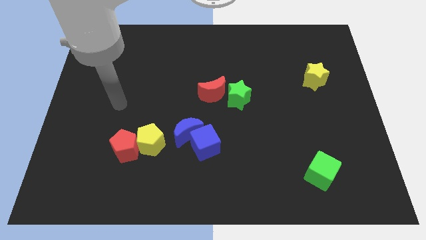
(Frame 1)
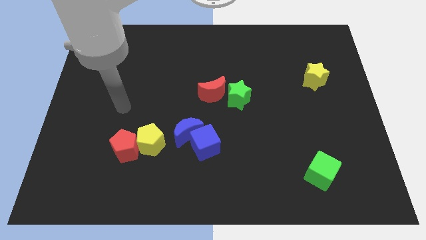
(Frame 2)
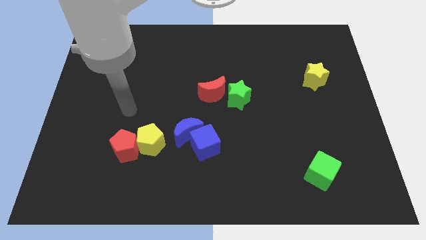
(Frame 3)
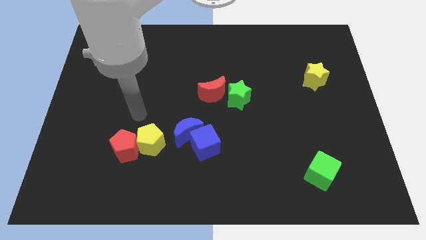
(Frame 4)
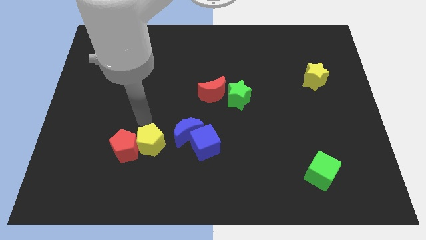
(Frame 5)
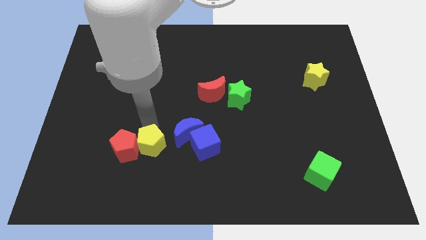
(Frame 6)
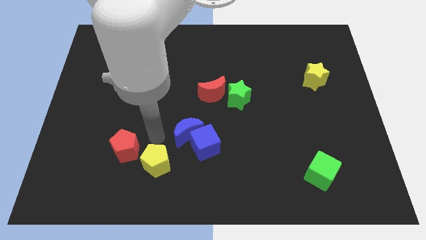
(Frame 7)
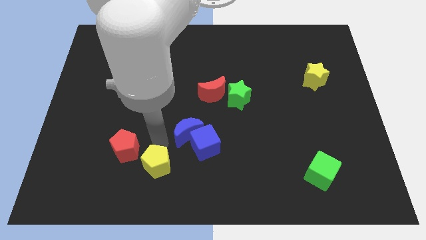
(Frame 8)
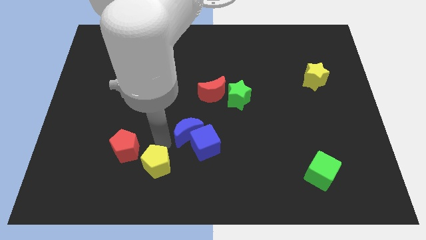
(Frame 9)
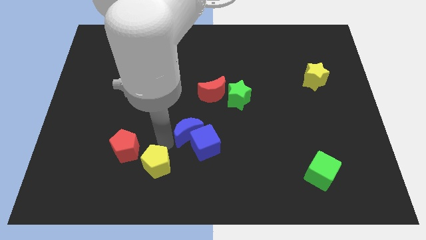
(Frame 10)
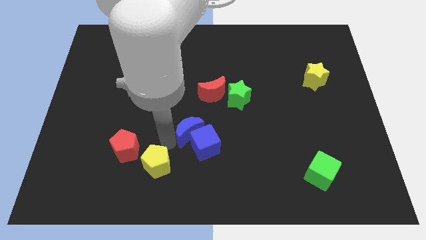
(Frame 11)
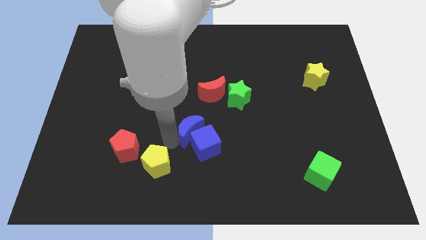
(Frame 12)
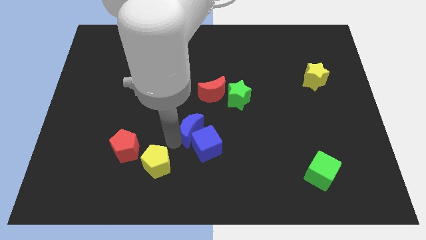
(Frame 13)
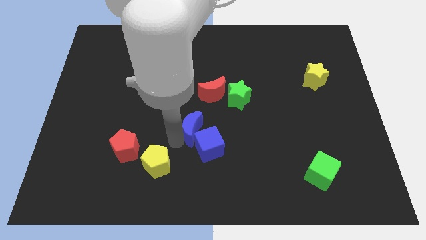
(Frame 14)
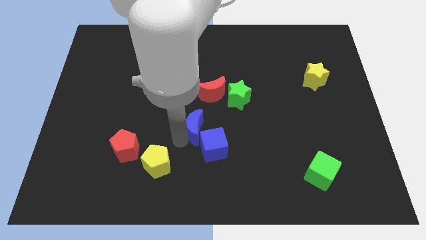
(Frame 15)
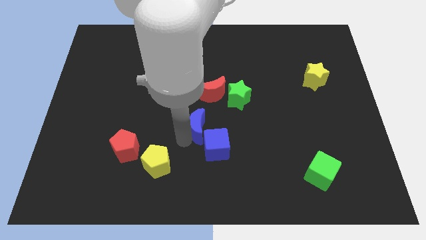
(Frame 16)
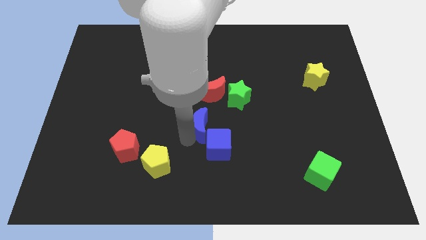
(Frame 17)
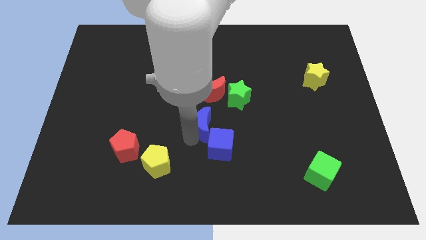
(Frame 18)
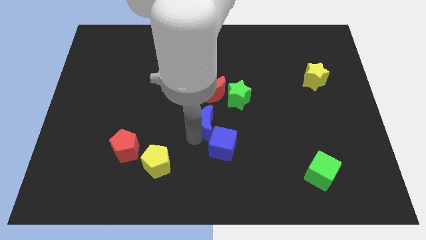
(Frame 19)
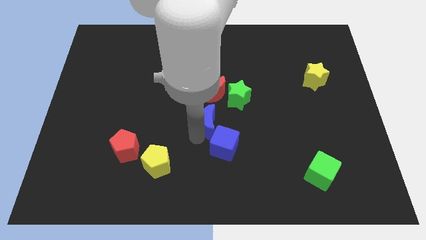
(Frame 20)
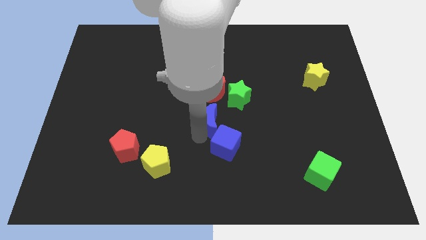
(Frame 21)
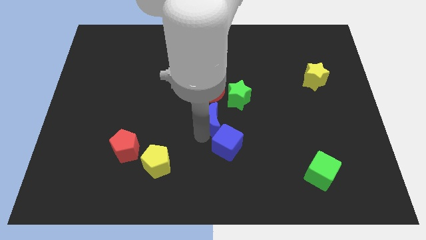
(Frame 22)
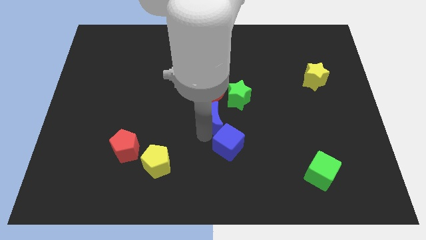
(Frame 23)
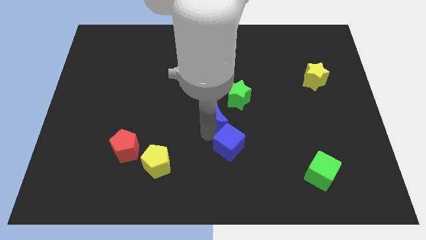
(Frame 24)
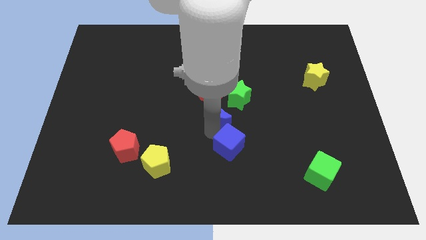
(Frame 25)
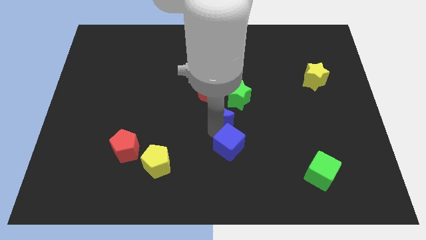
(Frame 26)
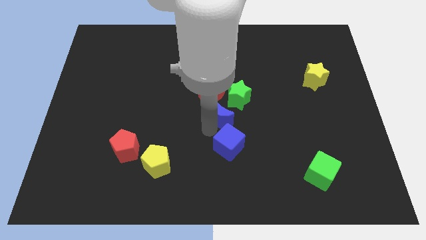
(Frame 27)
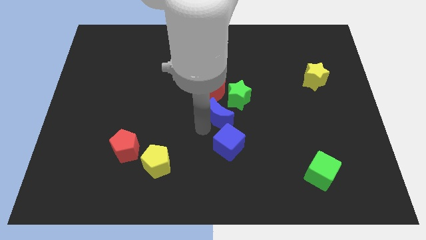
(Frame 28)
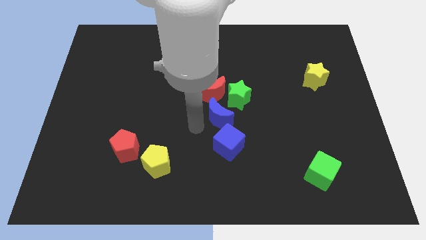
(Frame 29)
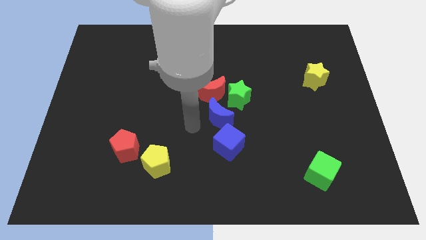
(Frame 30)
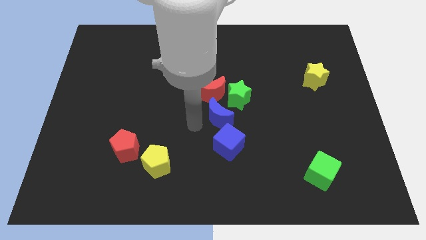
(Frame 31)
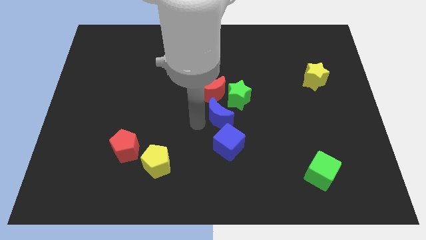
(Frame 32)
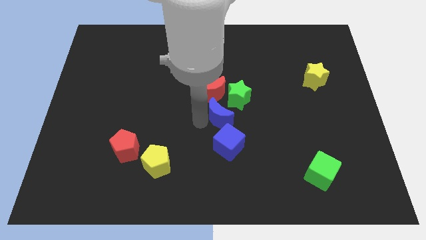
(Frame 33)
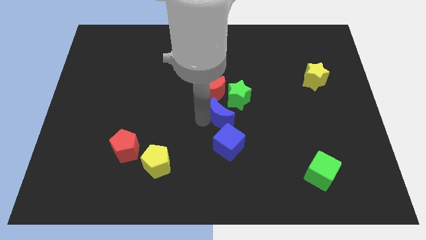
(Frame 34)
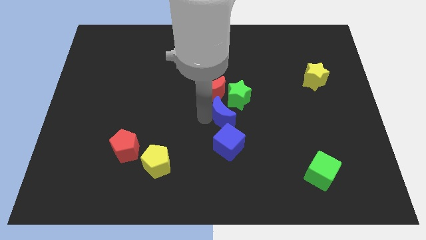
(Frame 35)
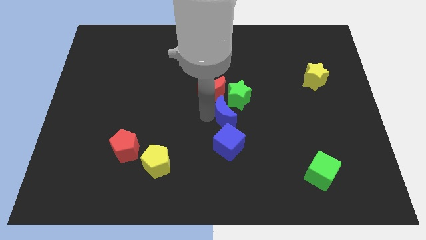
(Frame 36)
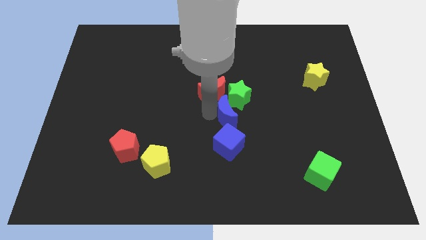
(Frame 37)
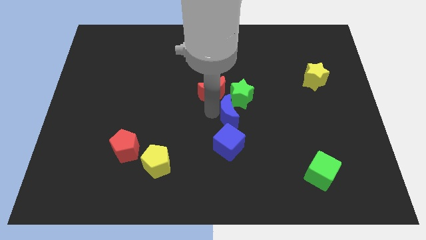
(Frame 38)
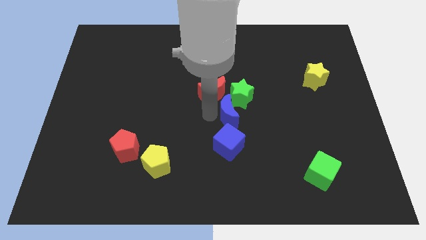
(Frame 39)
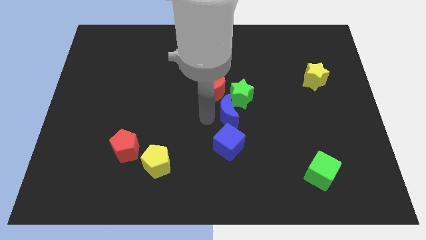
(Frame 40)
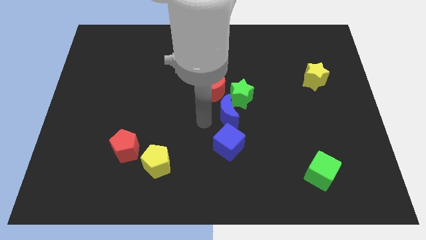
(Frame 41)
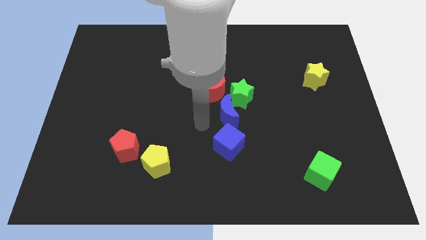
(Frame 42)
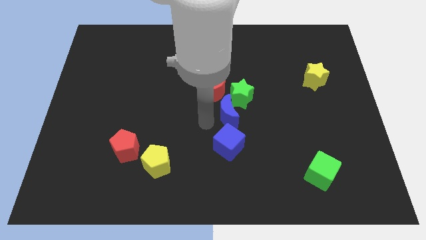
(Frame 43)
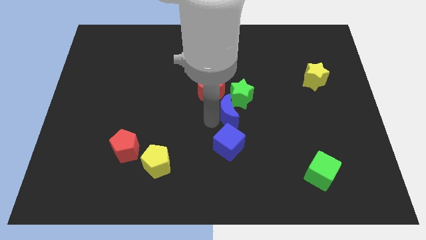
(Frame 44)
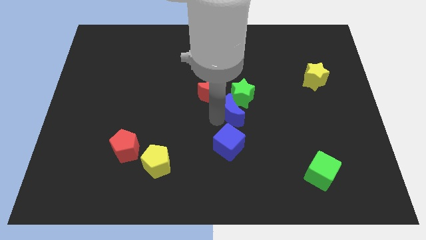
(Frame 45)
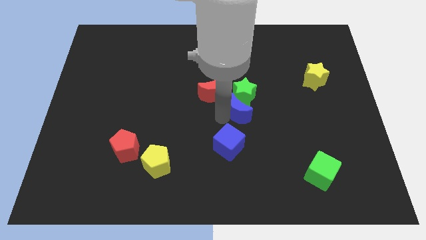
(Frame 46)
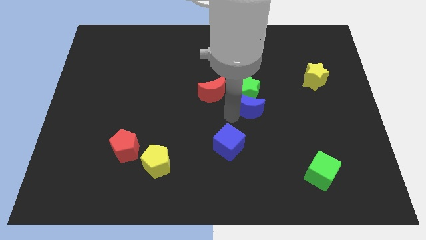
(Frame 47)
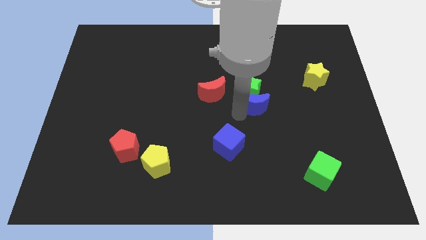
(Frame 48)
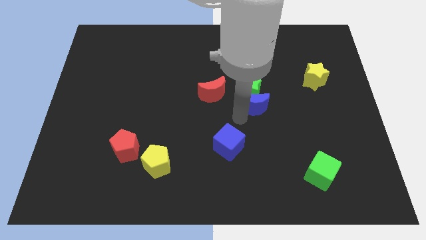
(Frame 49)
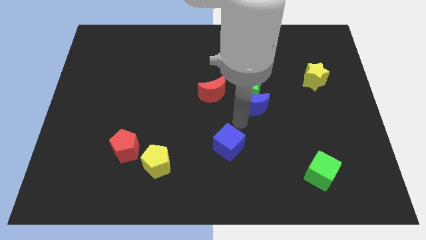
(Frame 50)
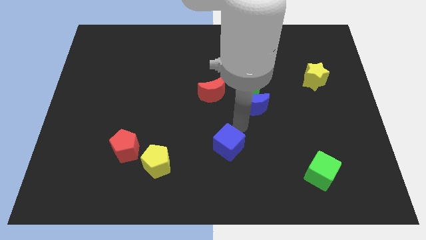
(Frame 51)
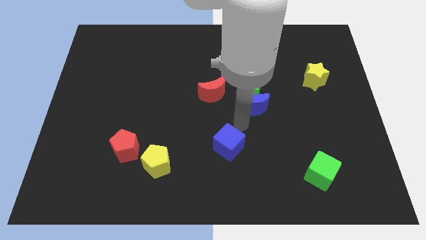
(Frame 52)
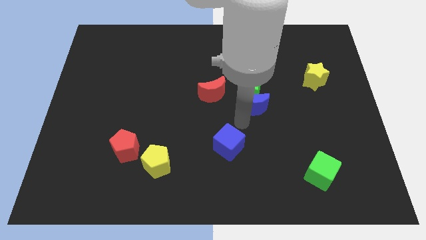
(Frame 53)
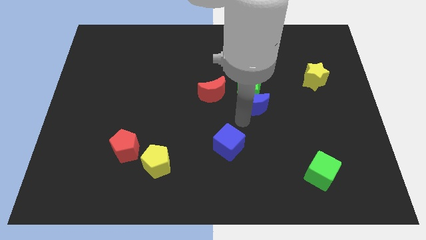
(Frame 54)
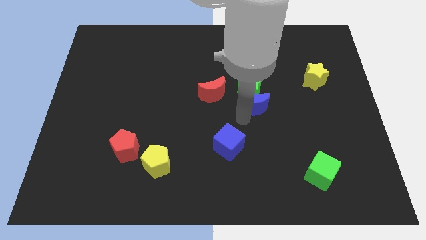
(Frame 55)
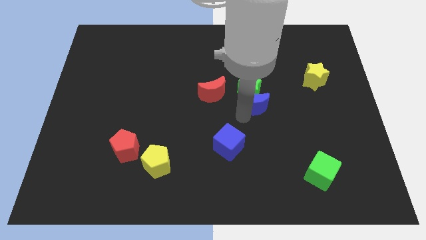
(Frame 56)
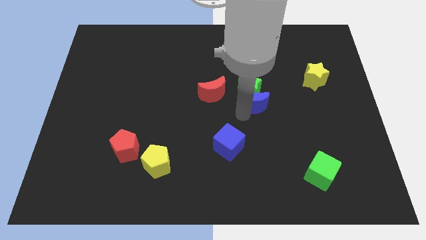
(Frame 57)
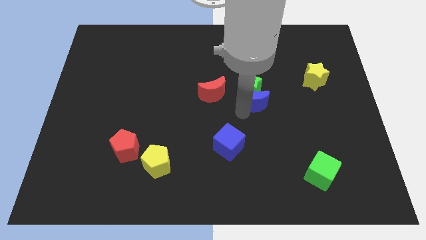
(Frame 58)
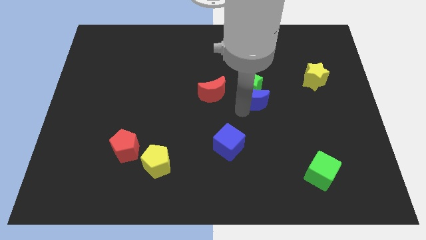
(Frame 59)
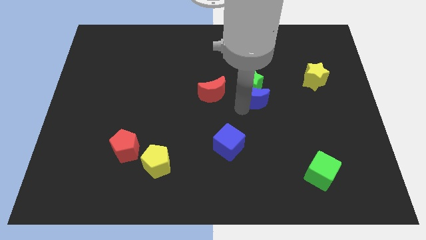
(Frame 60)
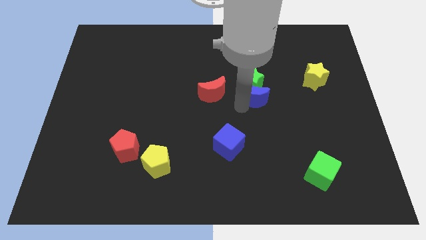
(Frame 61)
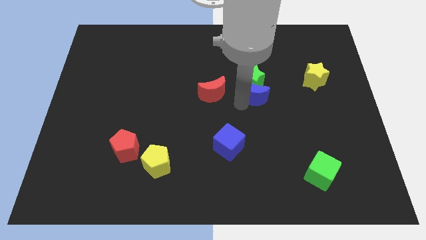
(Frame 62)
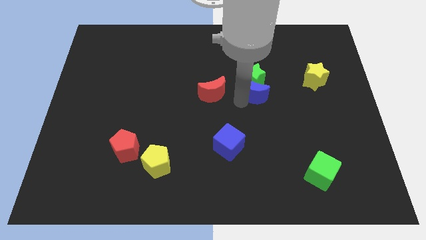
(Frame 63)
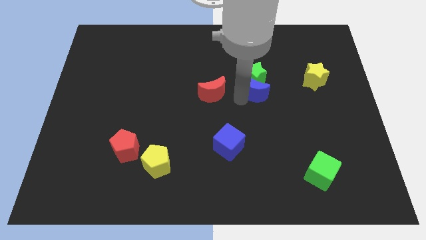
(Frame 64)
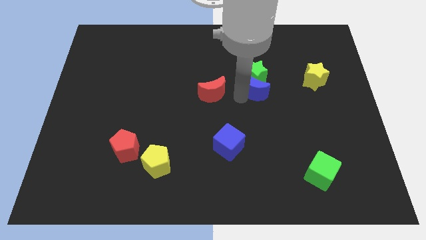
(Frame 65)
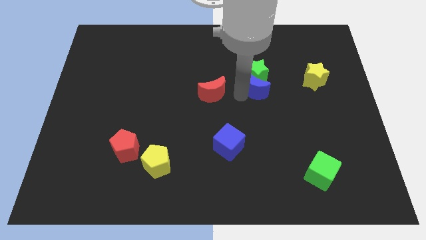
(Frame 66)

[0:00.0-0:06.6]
move the blue moon upwards and to the right

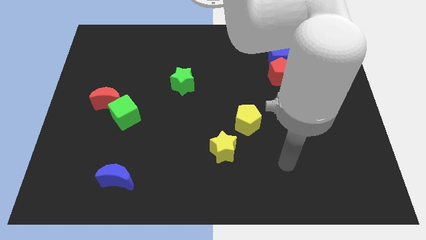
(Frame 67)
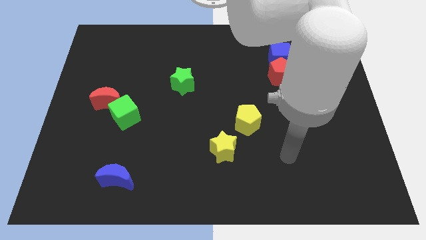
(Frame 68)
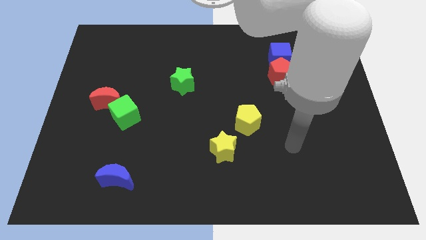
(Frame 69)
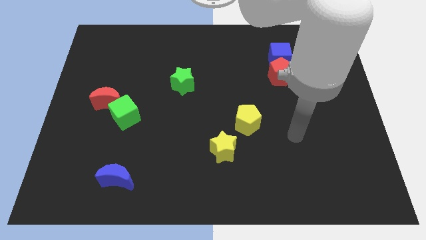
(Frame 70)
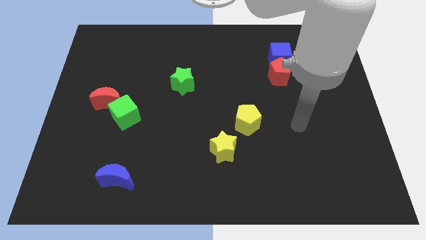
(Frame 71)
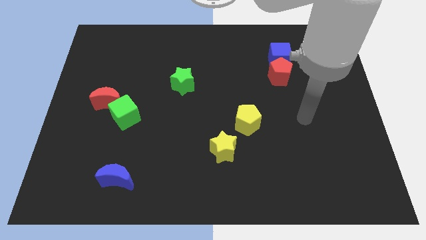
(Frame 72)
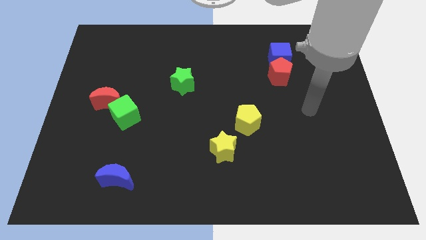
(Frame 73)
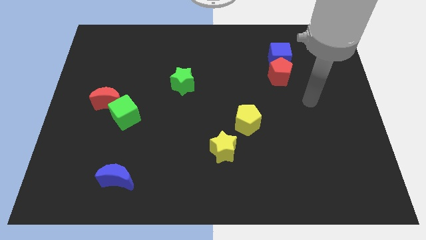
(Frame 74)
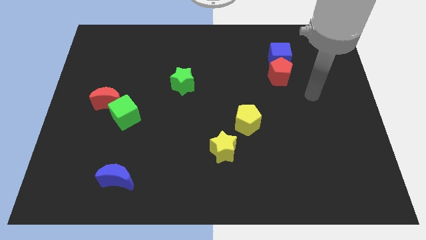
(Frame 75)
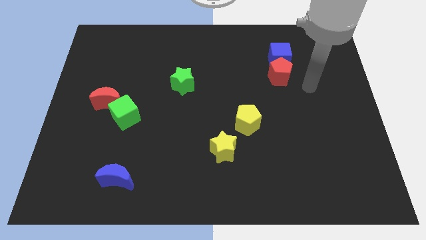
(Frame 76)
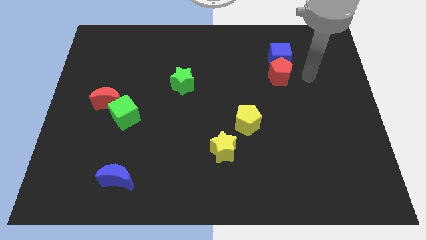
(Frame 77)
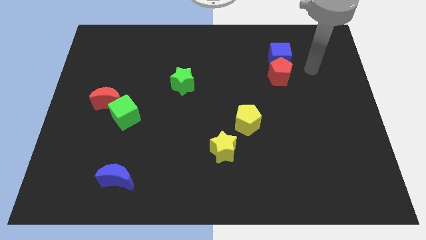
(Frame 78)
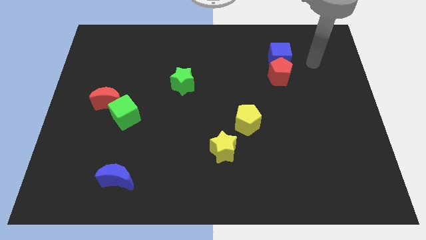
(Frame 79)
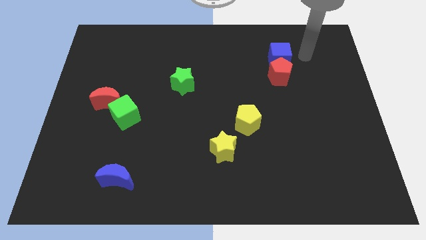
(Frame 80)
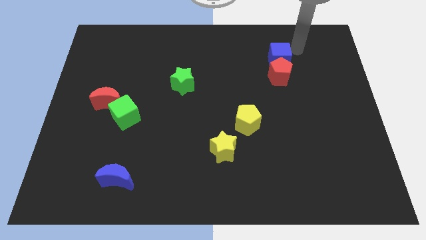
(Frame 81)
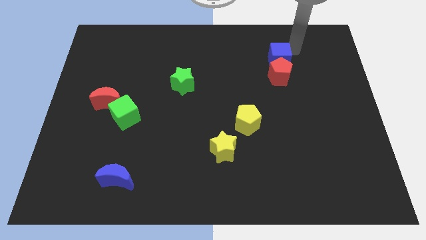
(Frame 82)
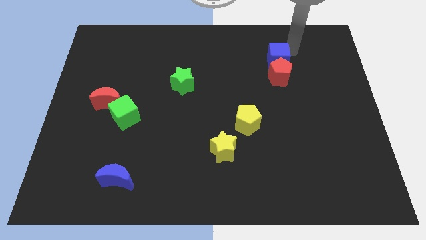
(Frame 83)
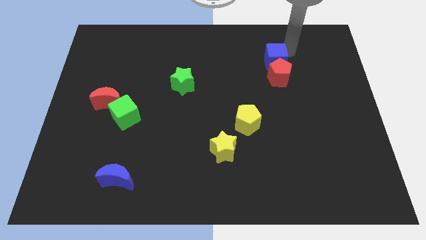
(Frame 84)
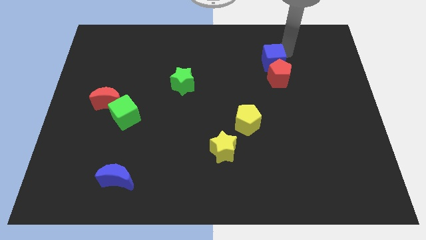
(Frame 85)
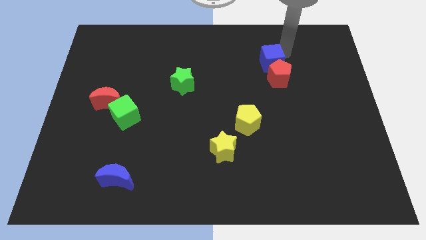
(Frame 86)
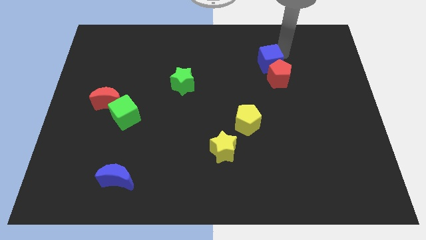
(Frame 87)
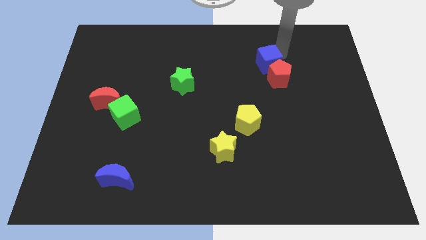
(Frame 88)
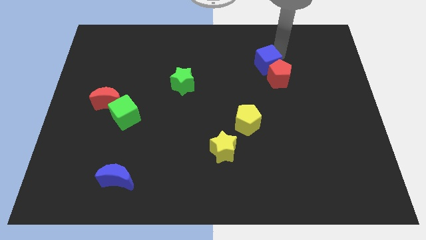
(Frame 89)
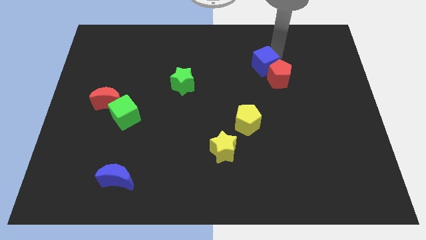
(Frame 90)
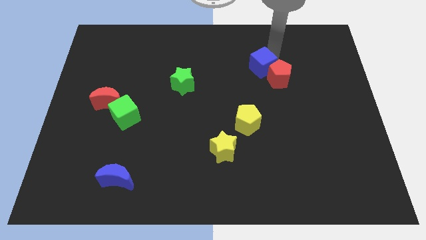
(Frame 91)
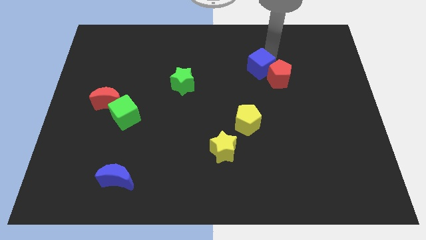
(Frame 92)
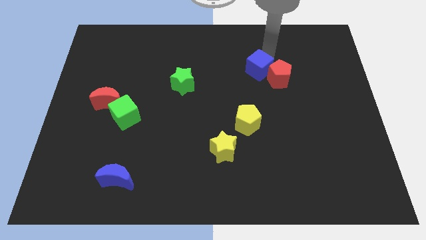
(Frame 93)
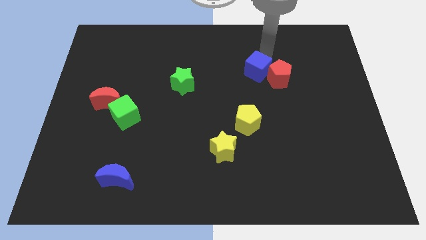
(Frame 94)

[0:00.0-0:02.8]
move the blue cube somewhat diagonally downwards and left
